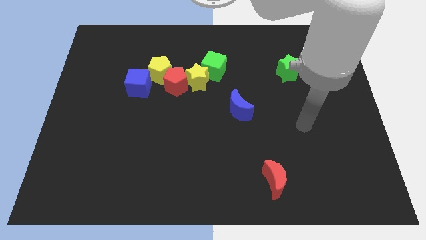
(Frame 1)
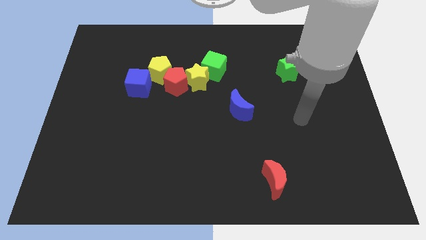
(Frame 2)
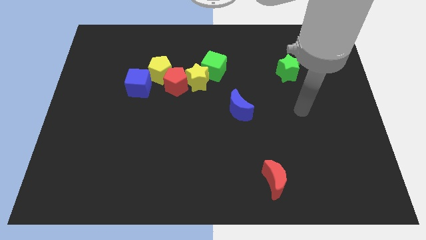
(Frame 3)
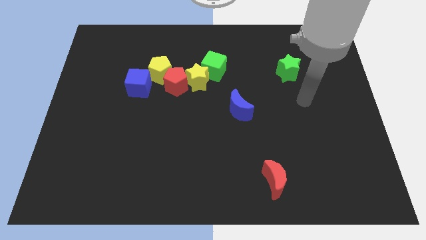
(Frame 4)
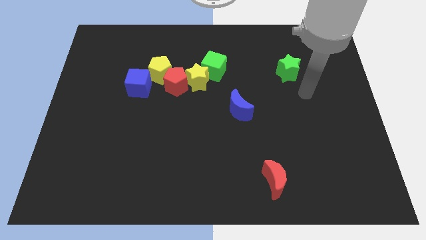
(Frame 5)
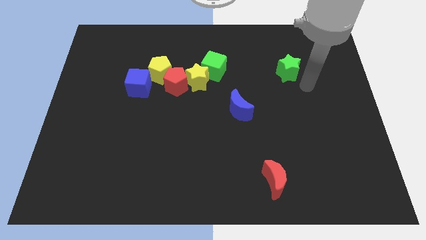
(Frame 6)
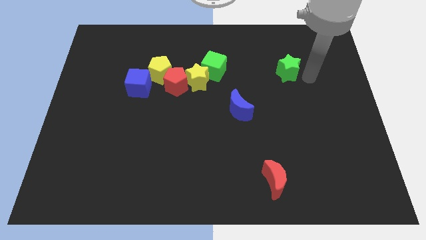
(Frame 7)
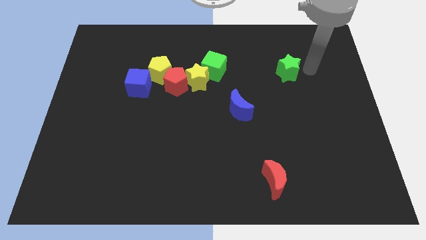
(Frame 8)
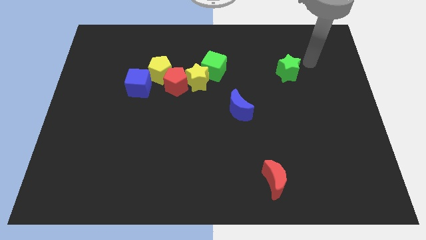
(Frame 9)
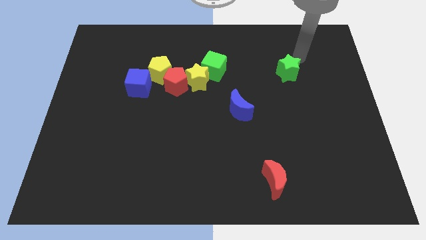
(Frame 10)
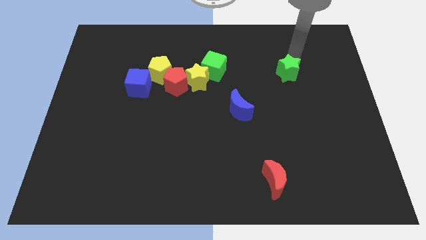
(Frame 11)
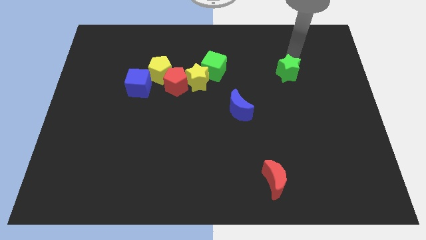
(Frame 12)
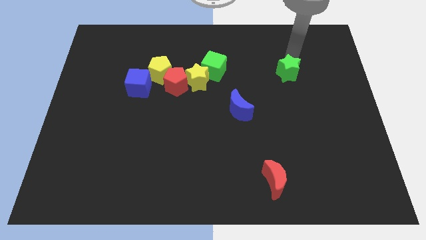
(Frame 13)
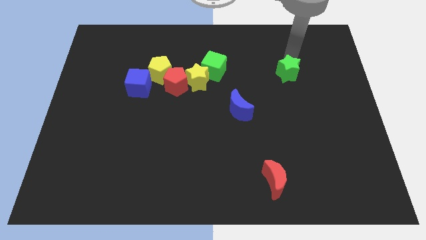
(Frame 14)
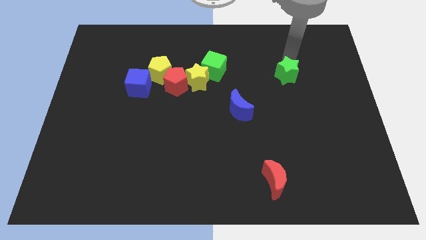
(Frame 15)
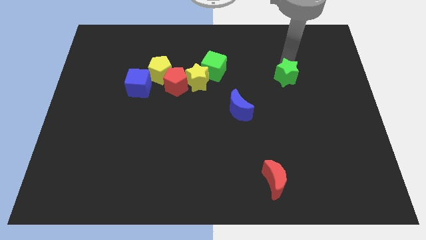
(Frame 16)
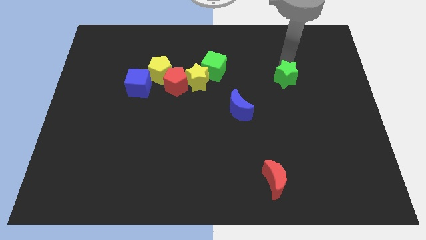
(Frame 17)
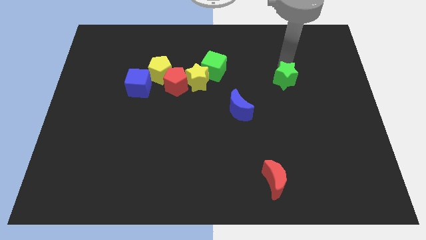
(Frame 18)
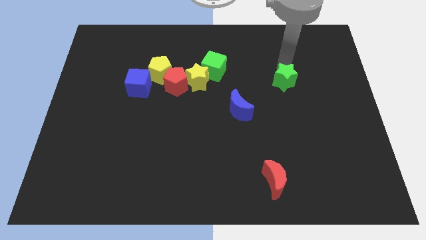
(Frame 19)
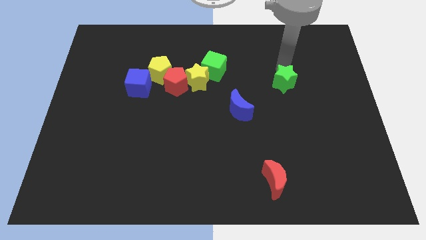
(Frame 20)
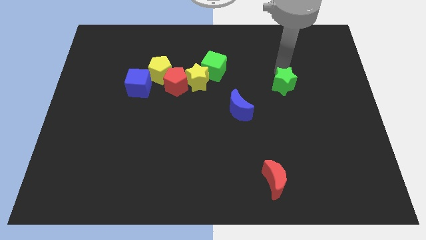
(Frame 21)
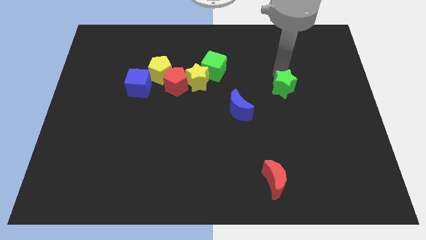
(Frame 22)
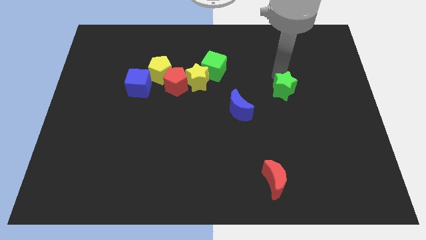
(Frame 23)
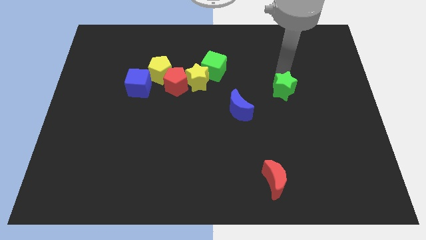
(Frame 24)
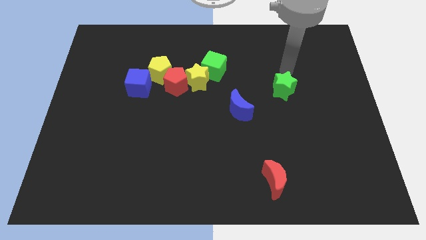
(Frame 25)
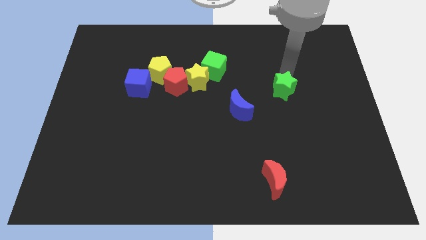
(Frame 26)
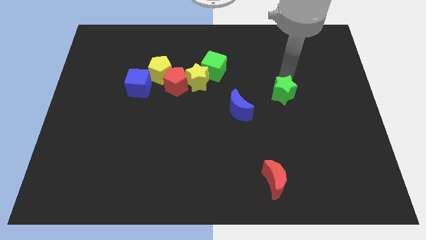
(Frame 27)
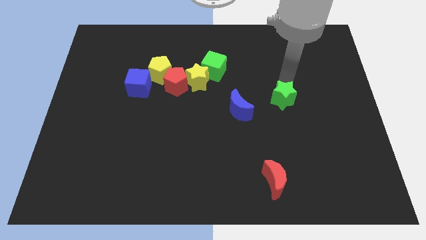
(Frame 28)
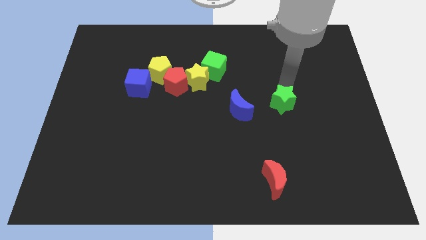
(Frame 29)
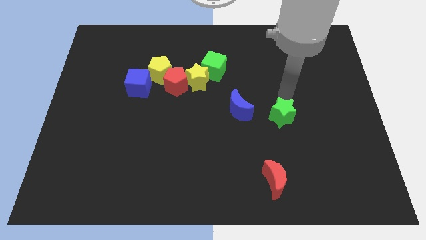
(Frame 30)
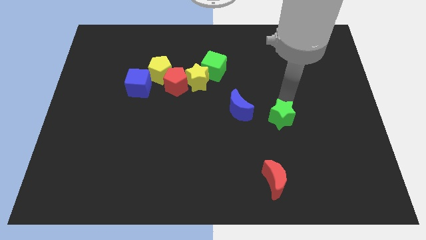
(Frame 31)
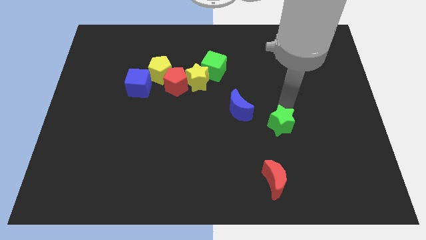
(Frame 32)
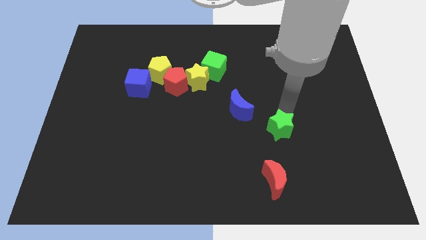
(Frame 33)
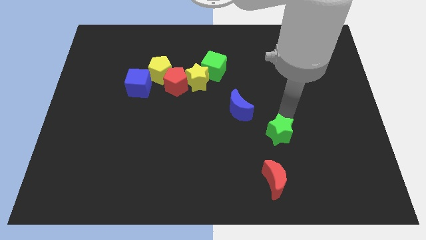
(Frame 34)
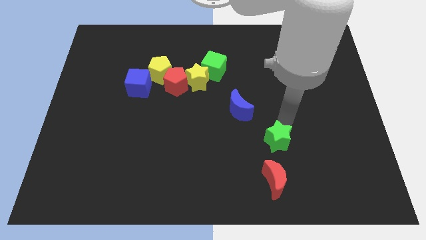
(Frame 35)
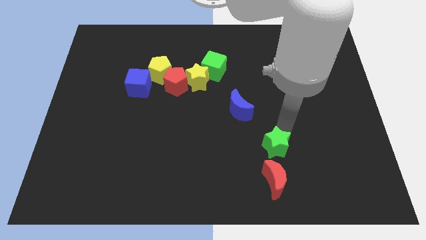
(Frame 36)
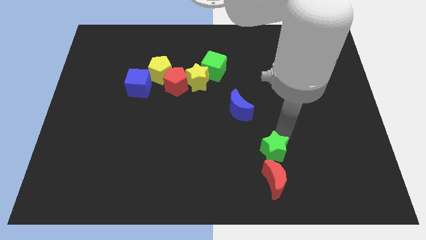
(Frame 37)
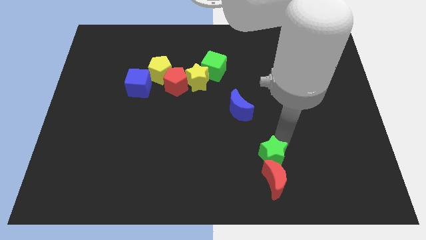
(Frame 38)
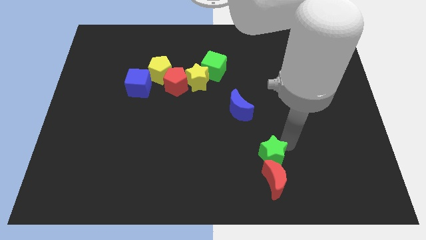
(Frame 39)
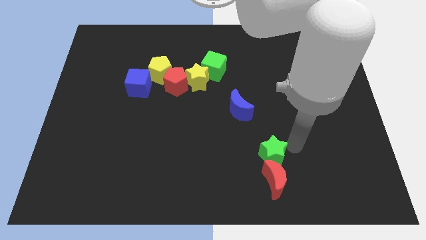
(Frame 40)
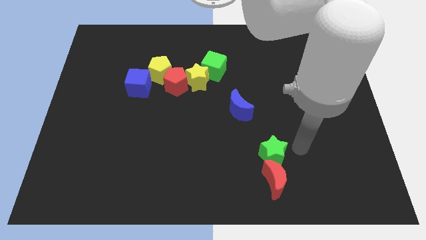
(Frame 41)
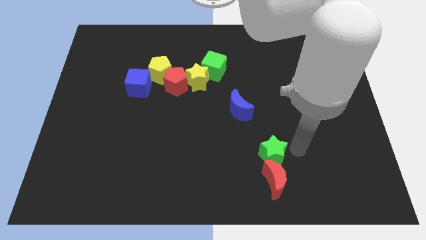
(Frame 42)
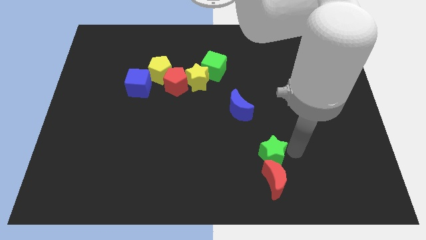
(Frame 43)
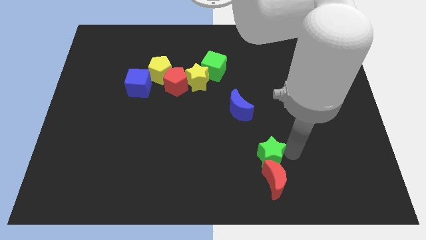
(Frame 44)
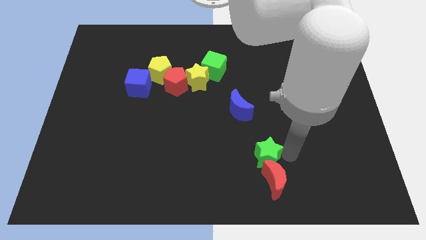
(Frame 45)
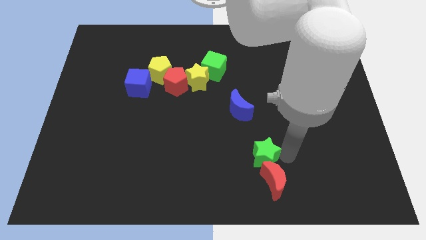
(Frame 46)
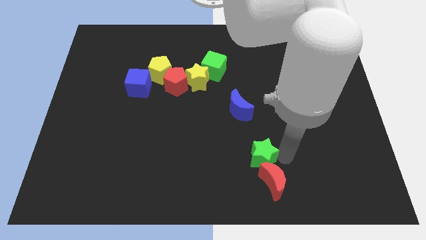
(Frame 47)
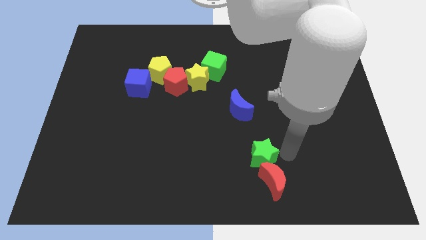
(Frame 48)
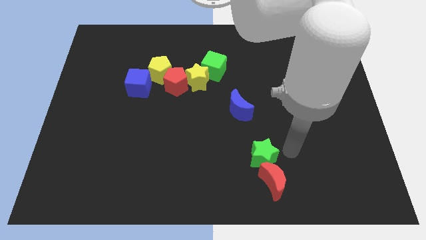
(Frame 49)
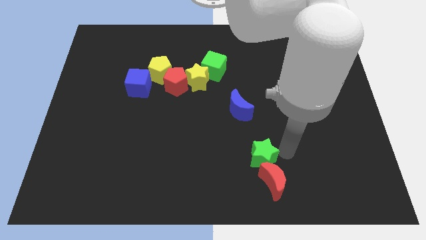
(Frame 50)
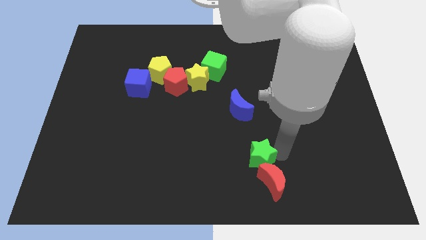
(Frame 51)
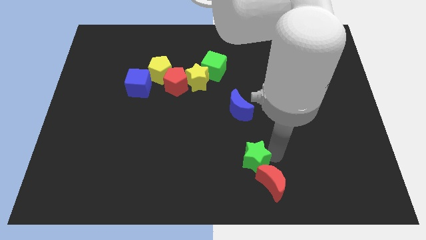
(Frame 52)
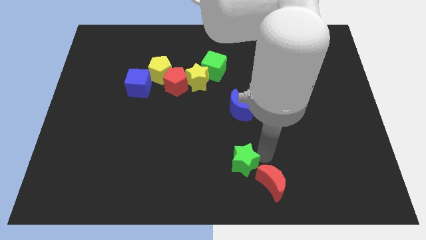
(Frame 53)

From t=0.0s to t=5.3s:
put the green star to the bottom side

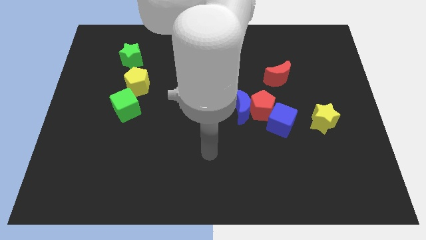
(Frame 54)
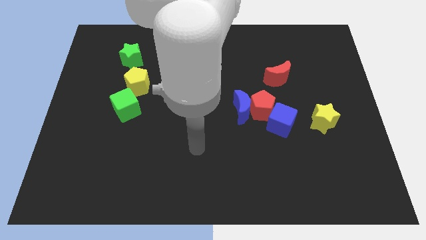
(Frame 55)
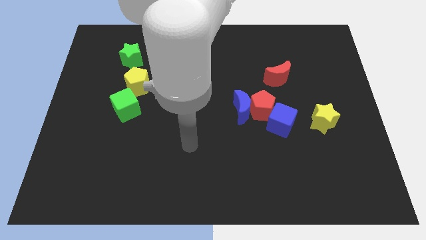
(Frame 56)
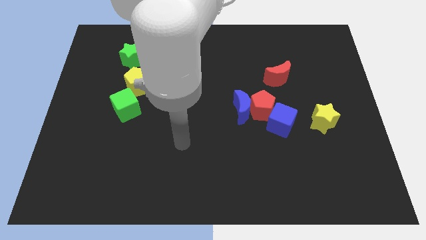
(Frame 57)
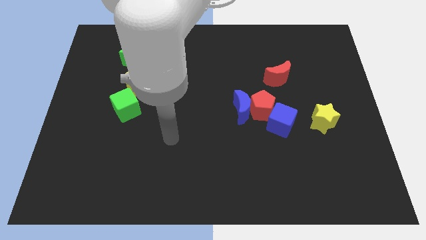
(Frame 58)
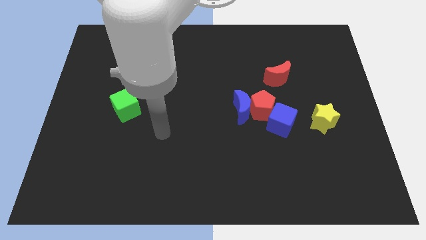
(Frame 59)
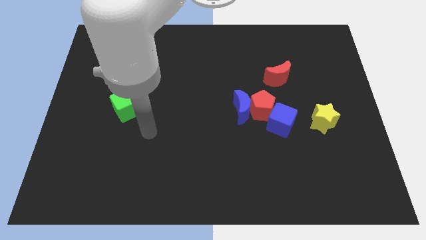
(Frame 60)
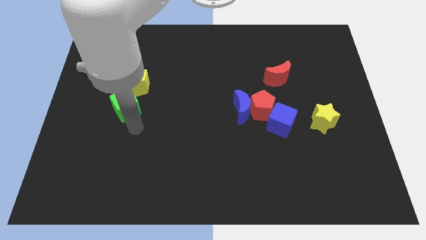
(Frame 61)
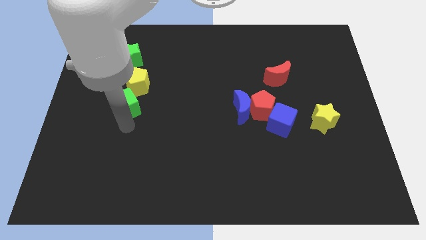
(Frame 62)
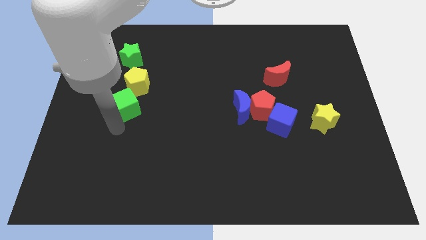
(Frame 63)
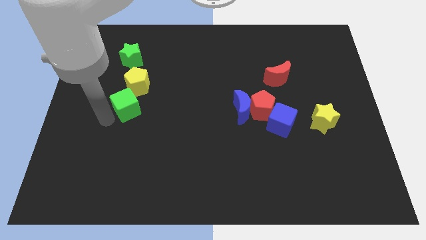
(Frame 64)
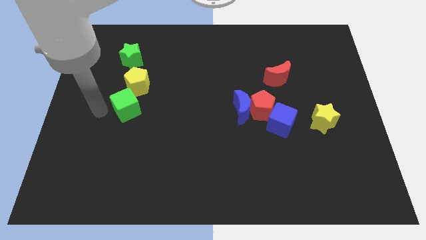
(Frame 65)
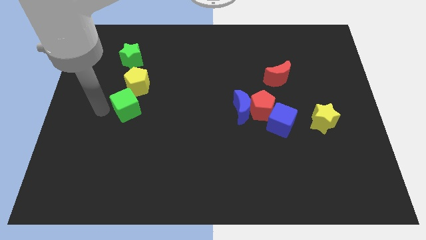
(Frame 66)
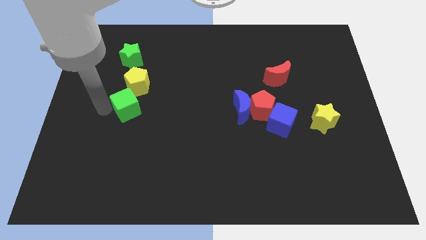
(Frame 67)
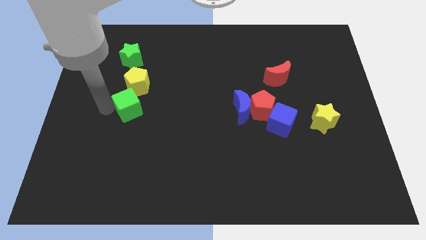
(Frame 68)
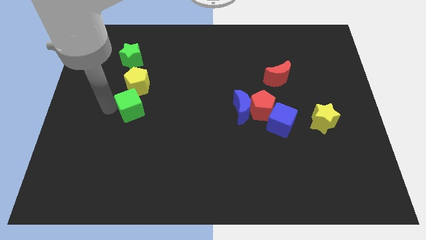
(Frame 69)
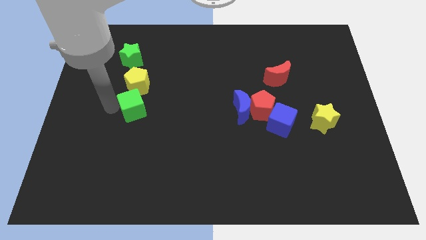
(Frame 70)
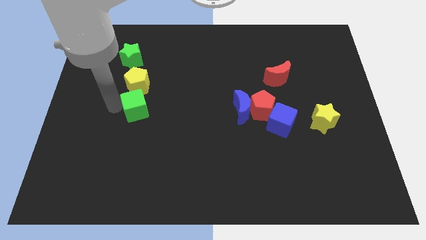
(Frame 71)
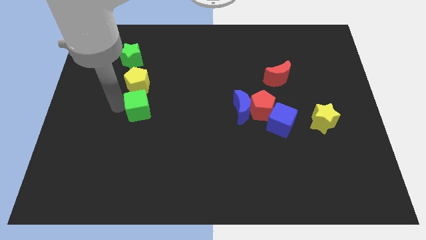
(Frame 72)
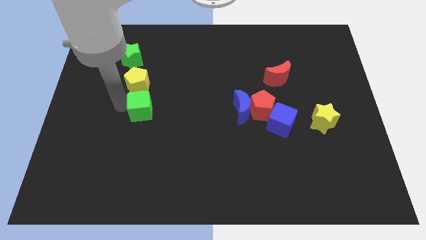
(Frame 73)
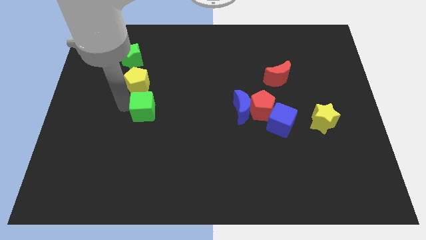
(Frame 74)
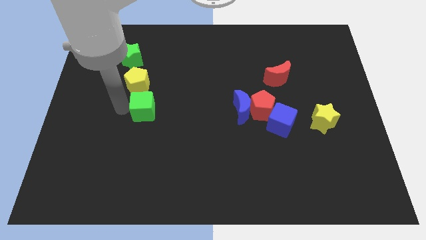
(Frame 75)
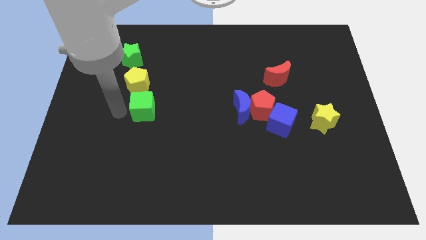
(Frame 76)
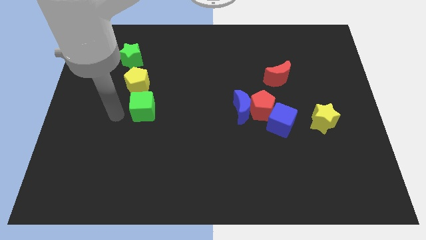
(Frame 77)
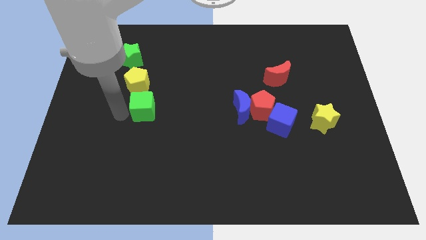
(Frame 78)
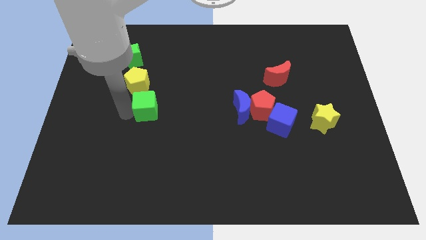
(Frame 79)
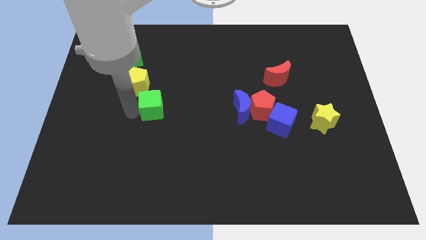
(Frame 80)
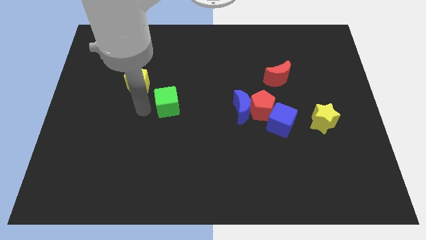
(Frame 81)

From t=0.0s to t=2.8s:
push the green cube to the center
